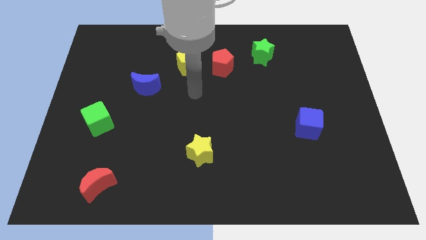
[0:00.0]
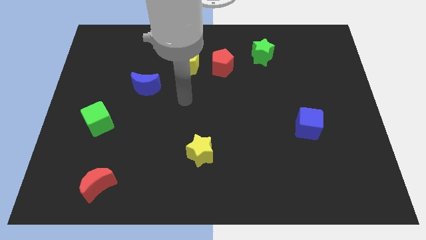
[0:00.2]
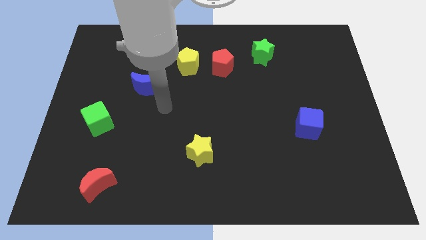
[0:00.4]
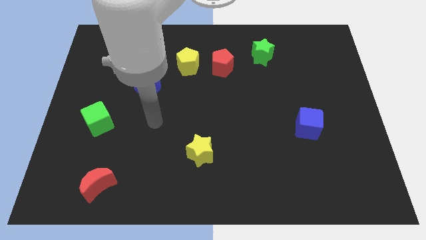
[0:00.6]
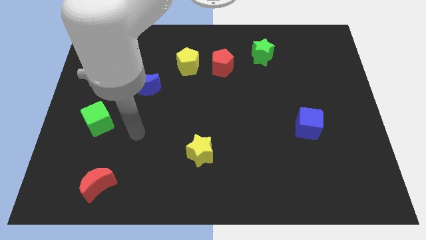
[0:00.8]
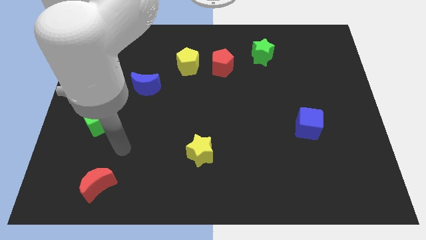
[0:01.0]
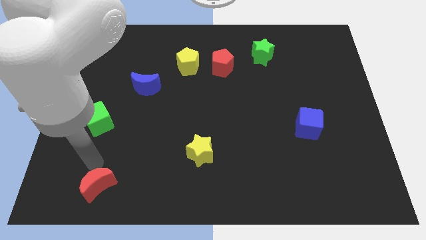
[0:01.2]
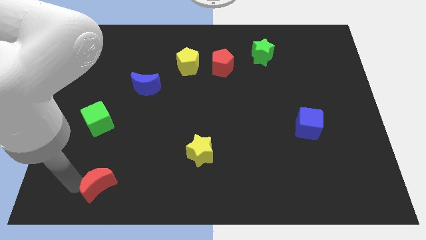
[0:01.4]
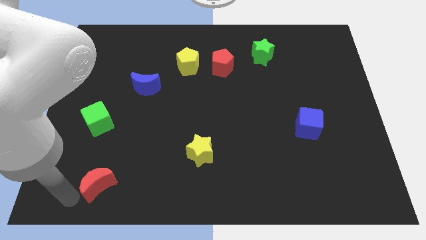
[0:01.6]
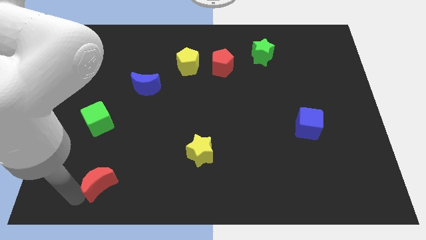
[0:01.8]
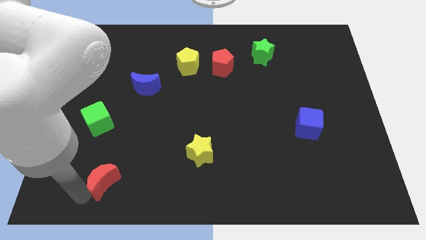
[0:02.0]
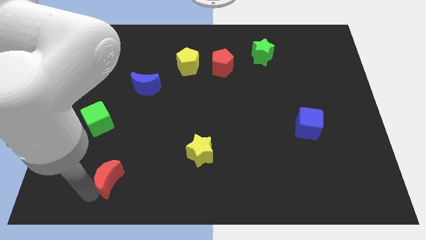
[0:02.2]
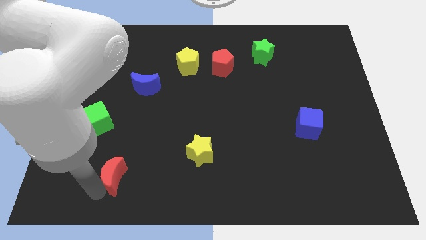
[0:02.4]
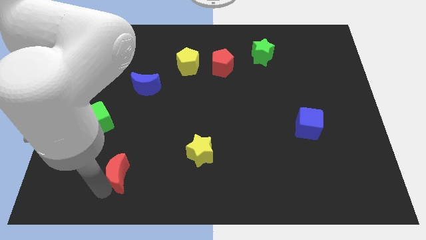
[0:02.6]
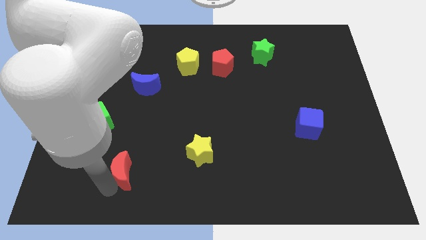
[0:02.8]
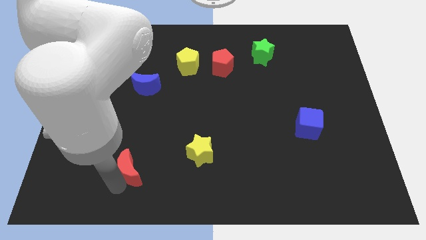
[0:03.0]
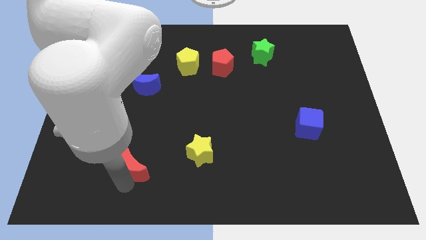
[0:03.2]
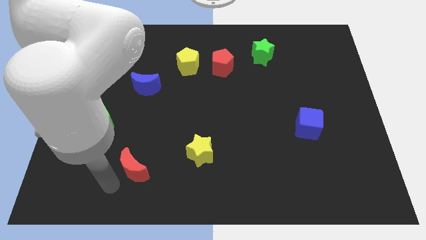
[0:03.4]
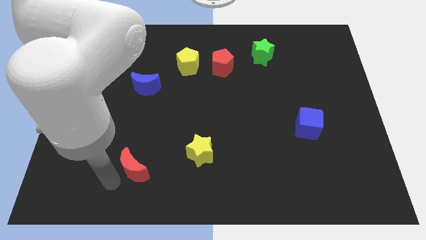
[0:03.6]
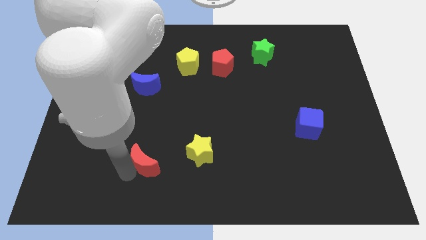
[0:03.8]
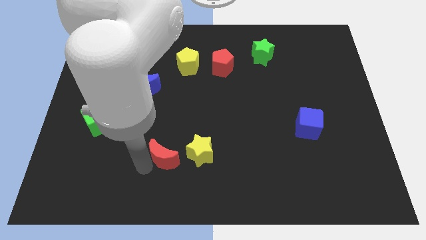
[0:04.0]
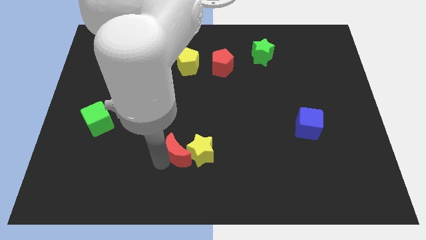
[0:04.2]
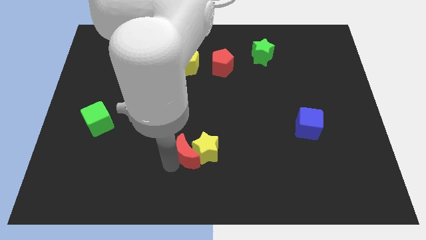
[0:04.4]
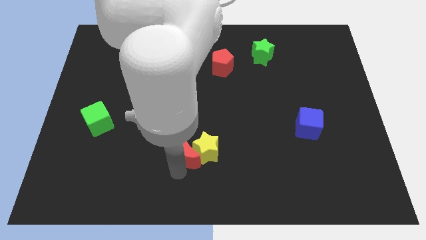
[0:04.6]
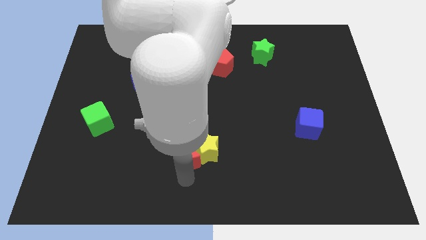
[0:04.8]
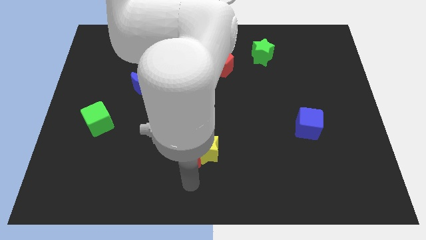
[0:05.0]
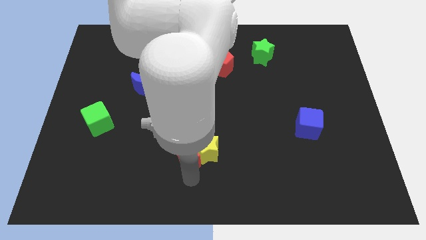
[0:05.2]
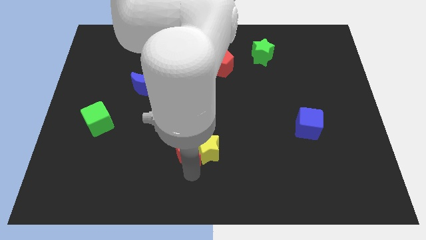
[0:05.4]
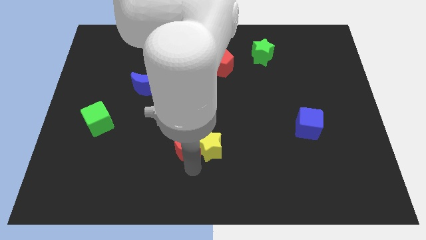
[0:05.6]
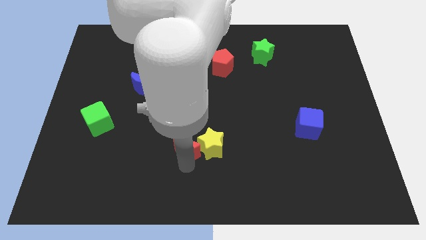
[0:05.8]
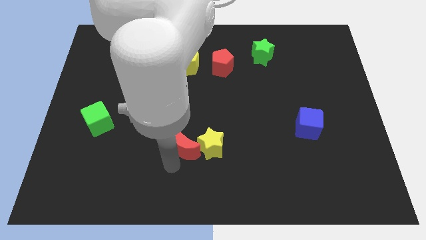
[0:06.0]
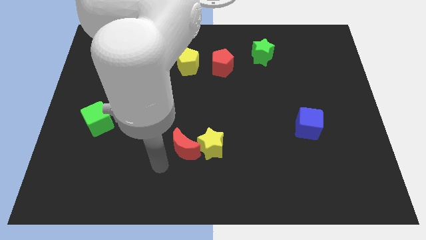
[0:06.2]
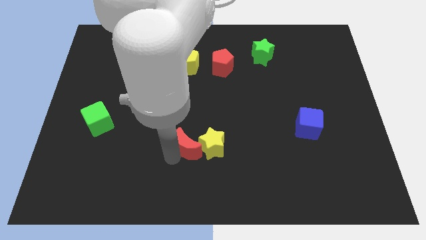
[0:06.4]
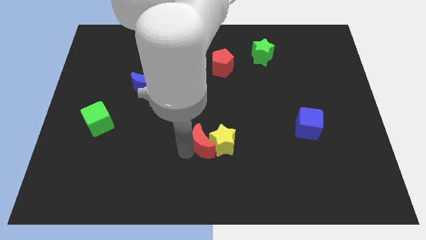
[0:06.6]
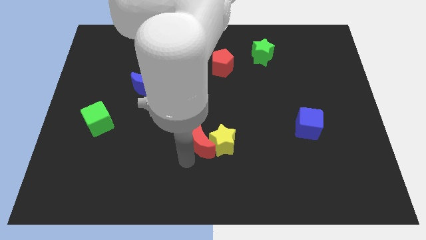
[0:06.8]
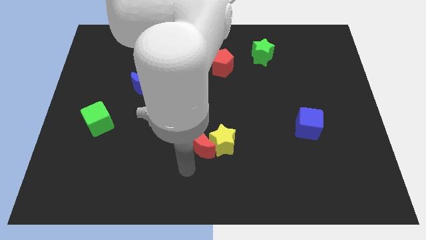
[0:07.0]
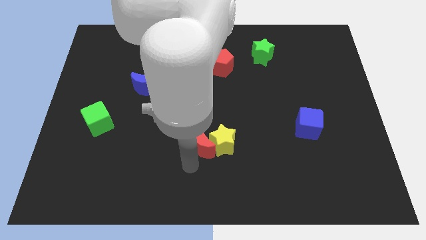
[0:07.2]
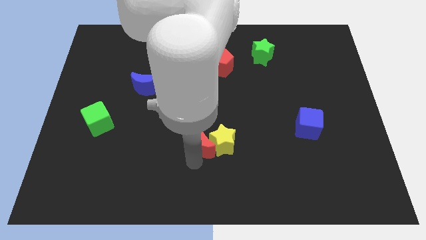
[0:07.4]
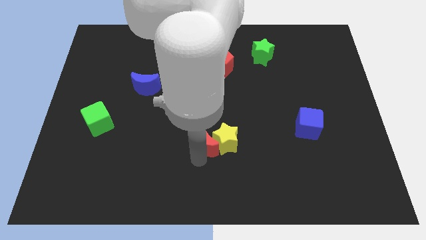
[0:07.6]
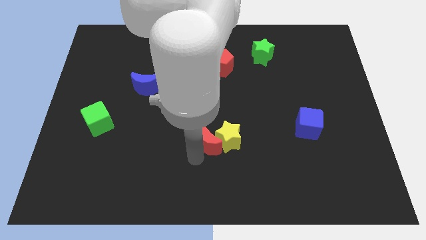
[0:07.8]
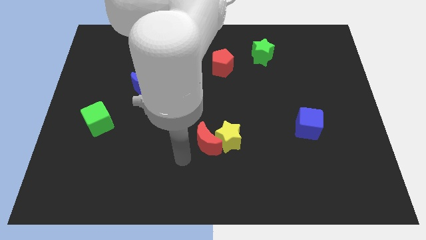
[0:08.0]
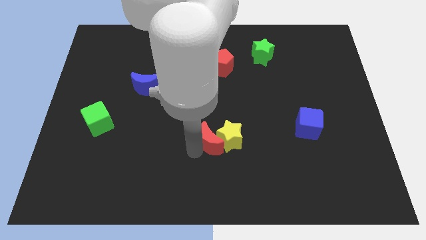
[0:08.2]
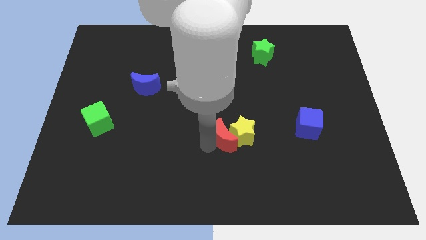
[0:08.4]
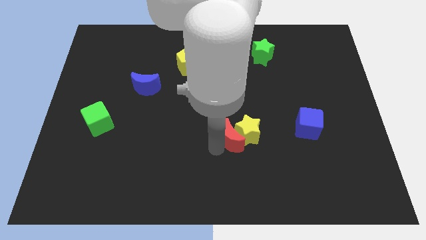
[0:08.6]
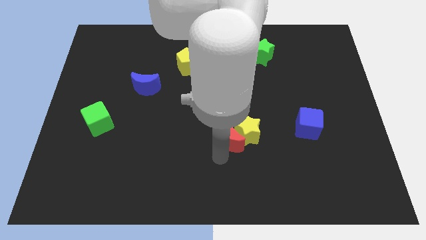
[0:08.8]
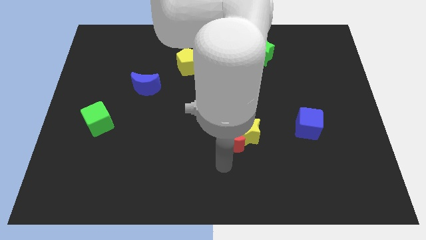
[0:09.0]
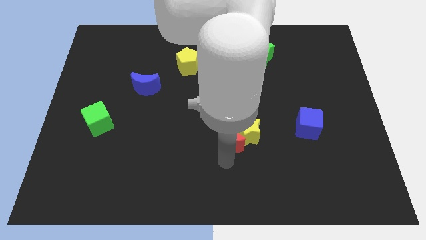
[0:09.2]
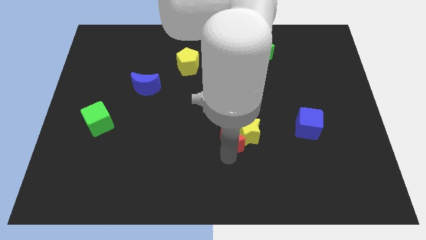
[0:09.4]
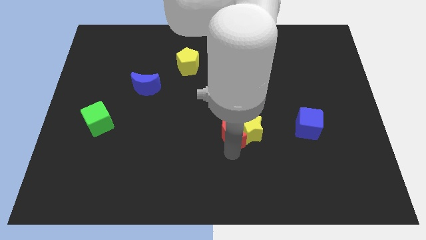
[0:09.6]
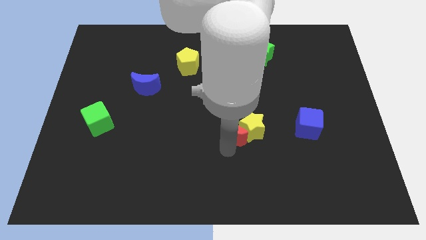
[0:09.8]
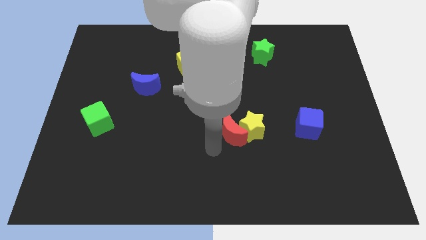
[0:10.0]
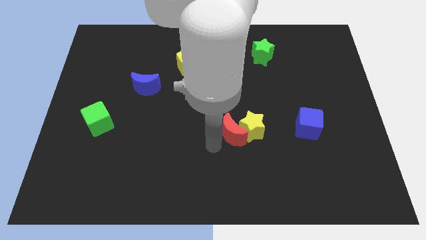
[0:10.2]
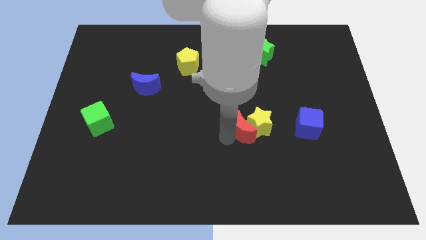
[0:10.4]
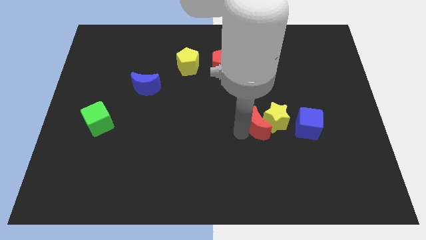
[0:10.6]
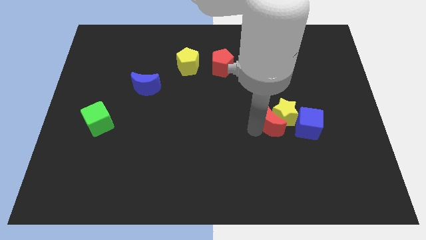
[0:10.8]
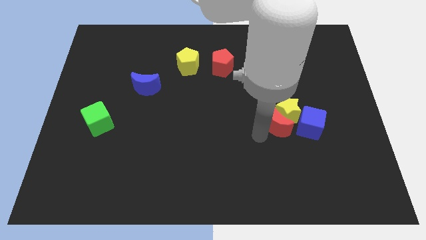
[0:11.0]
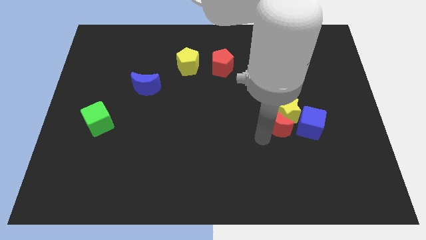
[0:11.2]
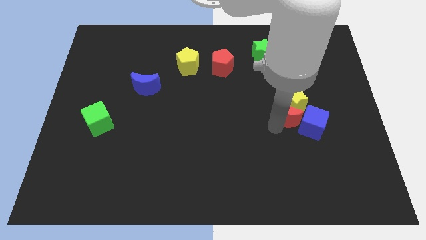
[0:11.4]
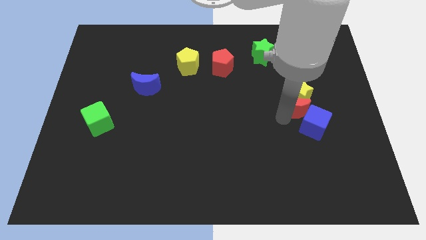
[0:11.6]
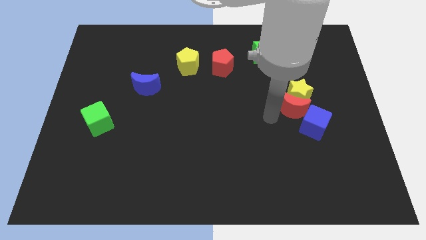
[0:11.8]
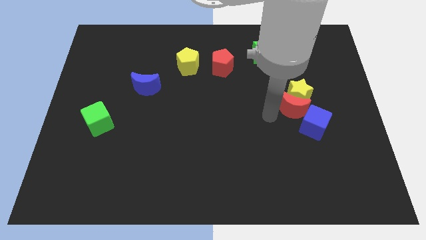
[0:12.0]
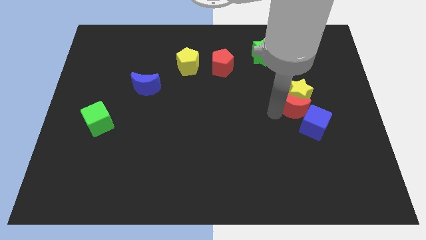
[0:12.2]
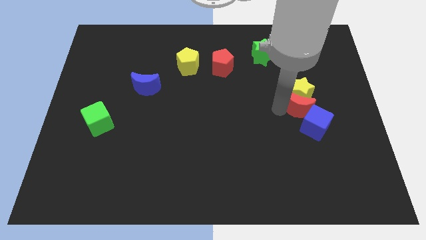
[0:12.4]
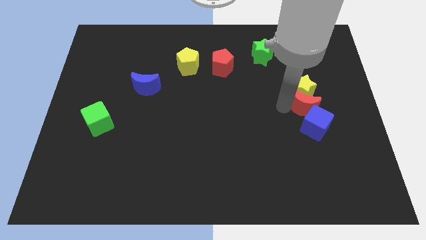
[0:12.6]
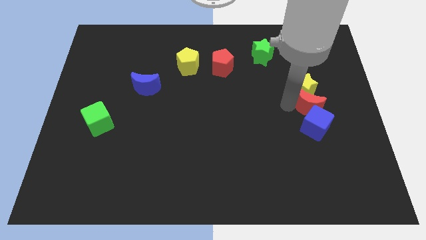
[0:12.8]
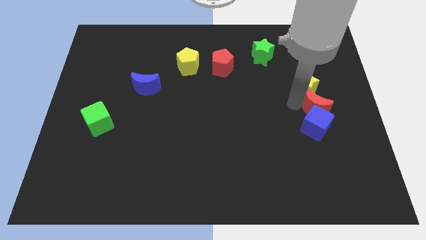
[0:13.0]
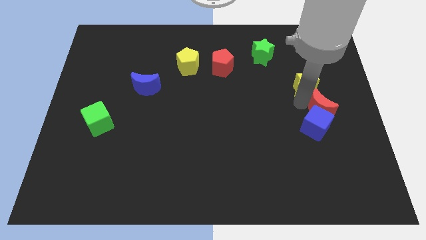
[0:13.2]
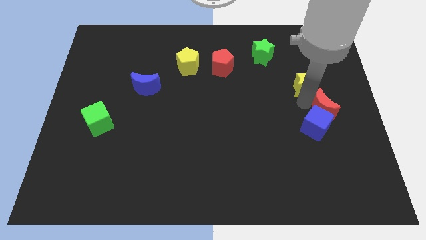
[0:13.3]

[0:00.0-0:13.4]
put the red moon to the right side of the board
